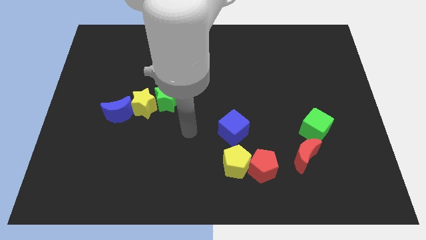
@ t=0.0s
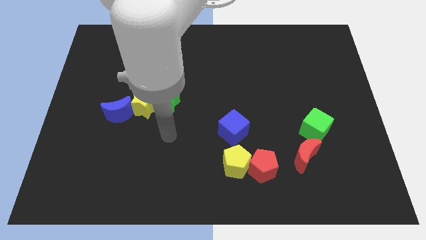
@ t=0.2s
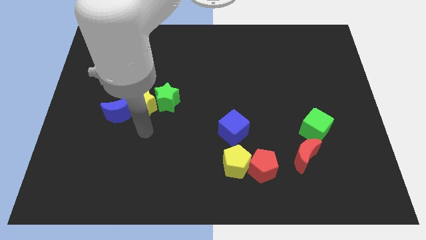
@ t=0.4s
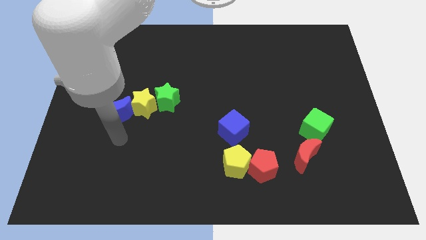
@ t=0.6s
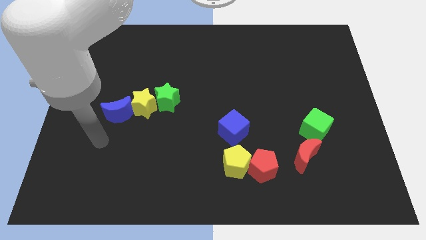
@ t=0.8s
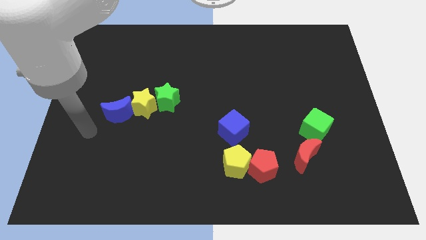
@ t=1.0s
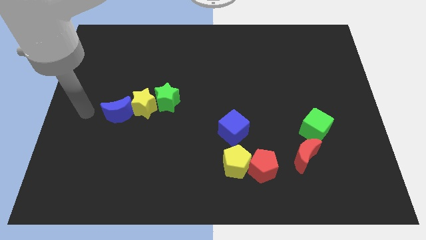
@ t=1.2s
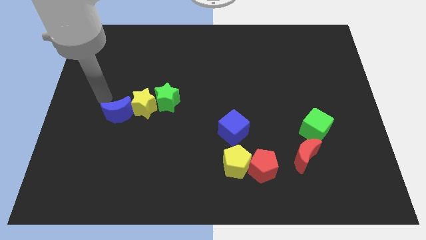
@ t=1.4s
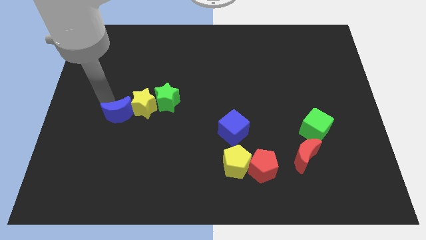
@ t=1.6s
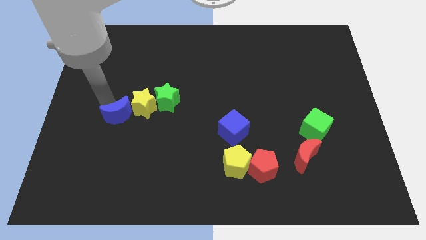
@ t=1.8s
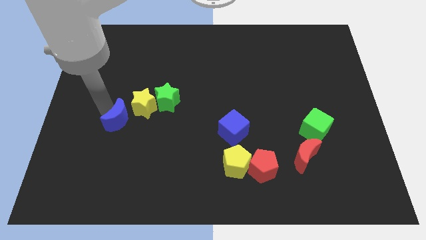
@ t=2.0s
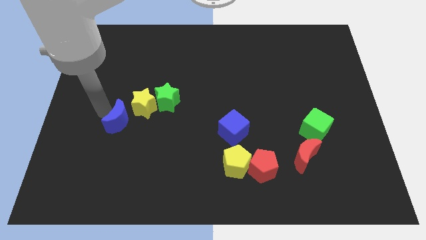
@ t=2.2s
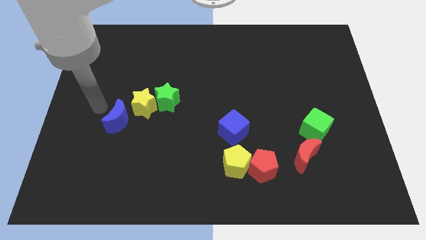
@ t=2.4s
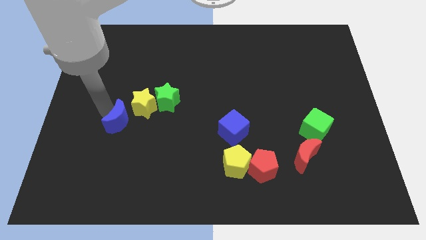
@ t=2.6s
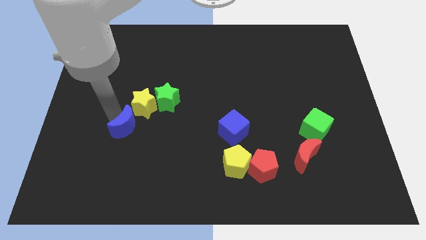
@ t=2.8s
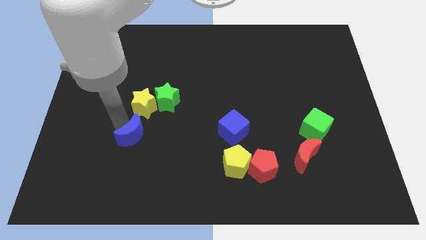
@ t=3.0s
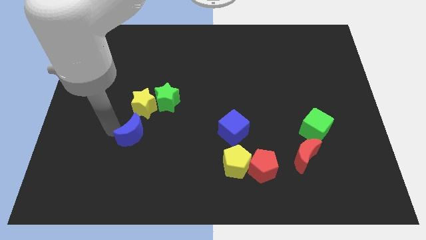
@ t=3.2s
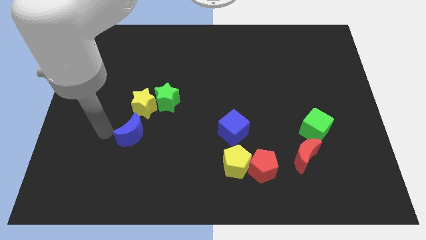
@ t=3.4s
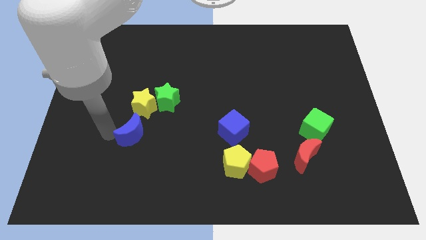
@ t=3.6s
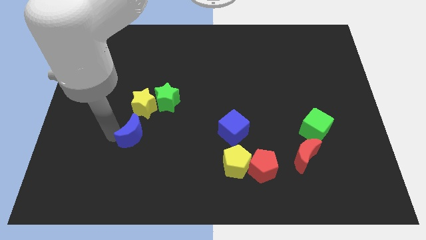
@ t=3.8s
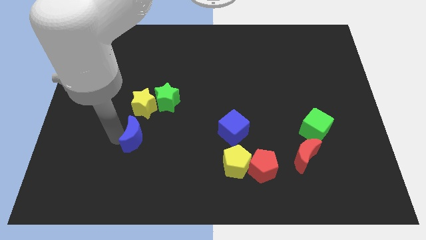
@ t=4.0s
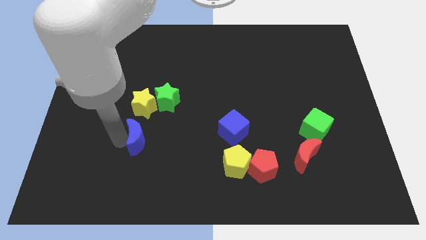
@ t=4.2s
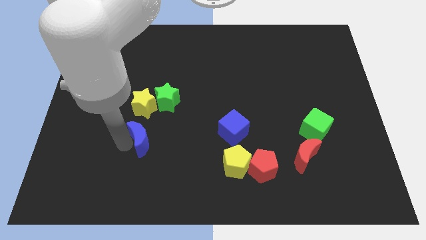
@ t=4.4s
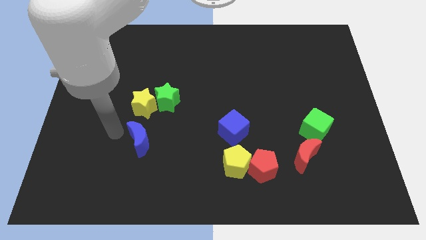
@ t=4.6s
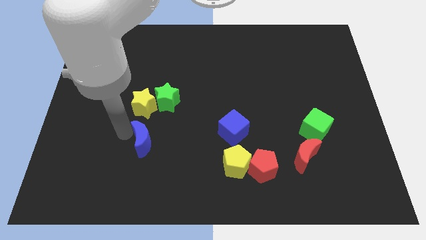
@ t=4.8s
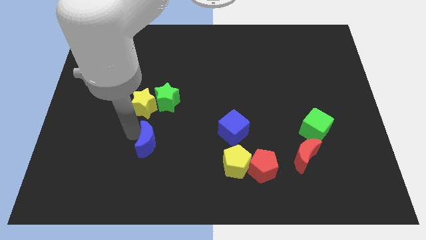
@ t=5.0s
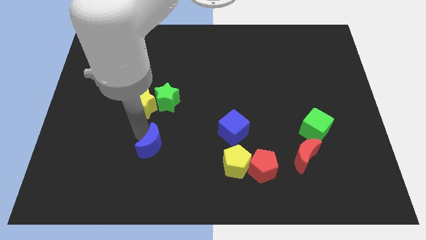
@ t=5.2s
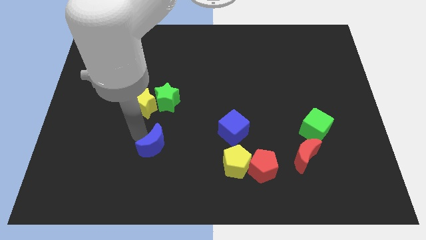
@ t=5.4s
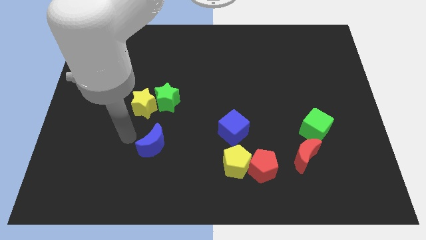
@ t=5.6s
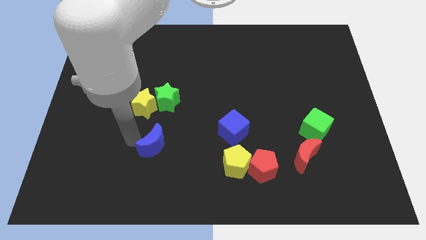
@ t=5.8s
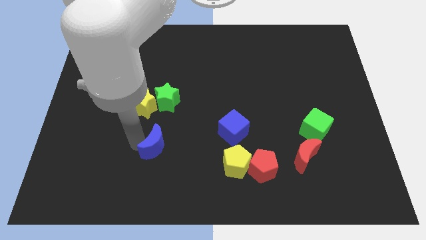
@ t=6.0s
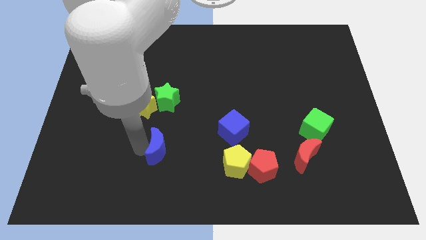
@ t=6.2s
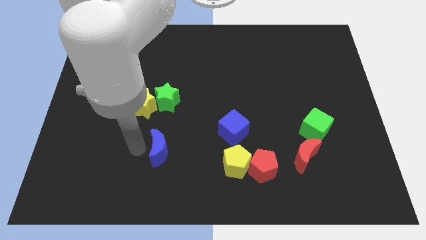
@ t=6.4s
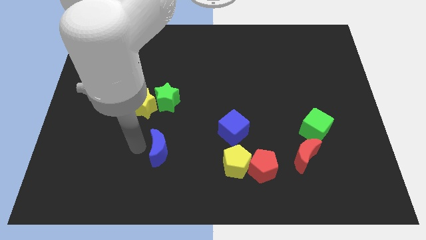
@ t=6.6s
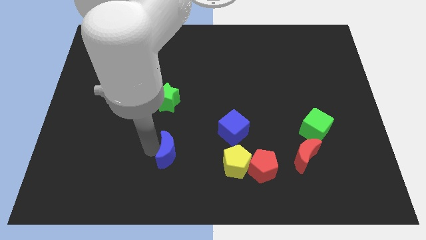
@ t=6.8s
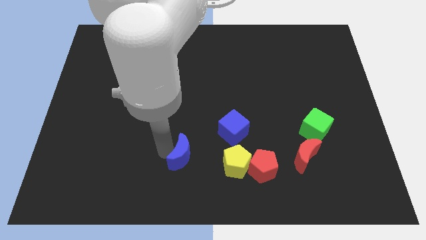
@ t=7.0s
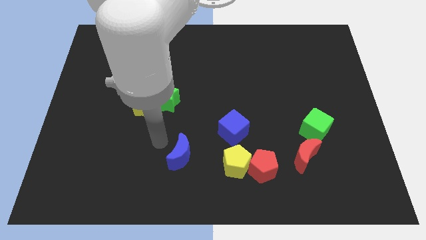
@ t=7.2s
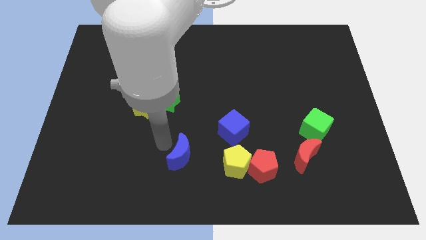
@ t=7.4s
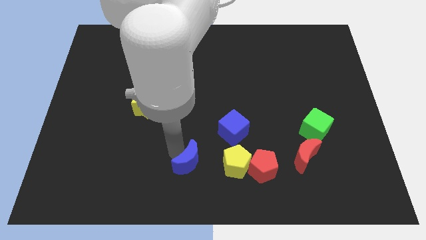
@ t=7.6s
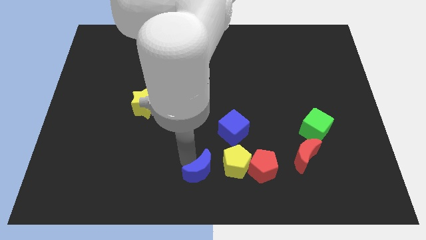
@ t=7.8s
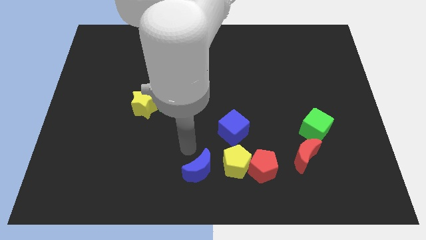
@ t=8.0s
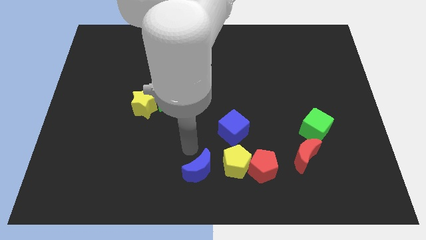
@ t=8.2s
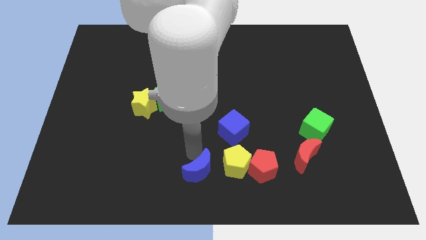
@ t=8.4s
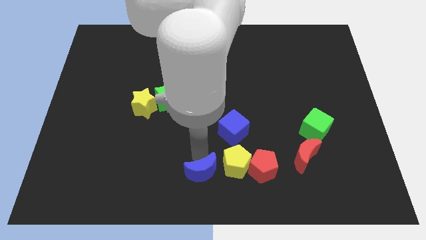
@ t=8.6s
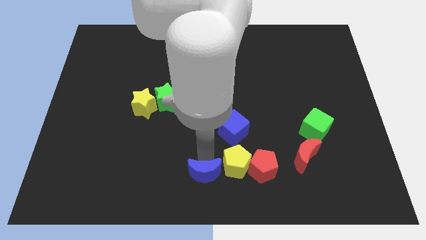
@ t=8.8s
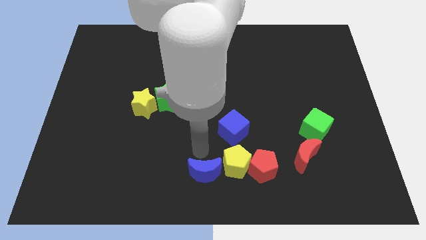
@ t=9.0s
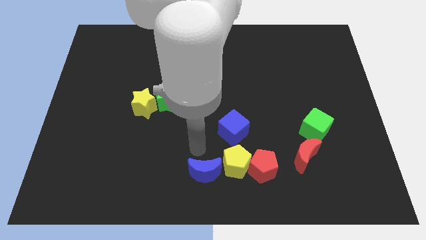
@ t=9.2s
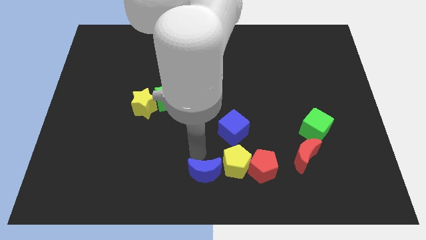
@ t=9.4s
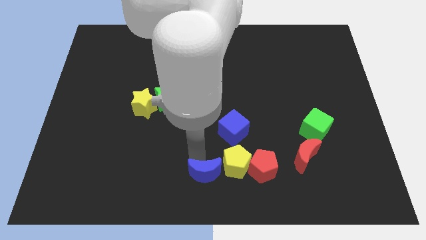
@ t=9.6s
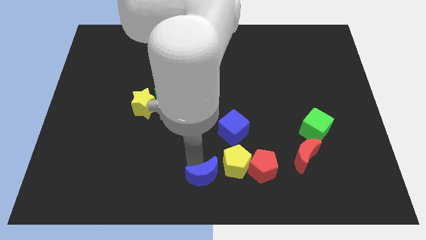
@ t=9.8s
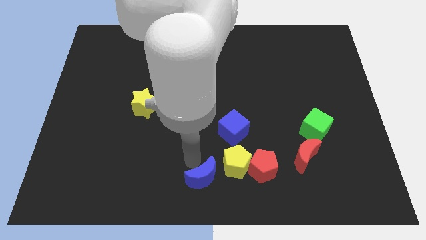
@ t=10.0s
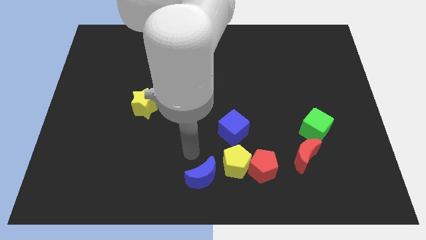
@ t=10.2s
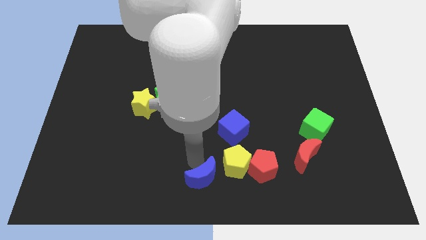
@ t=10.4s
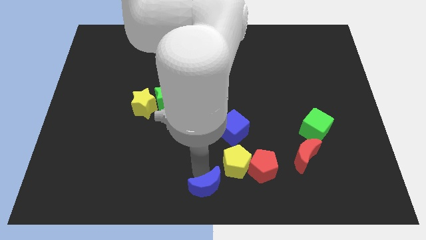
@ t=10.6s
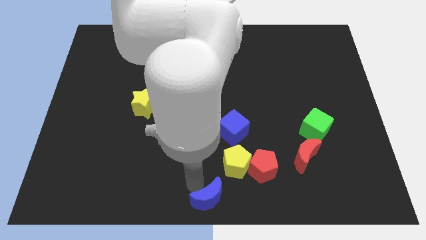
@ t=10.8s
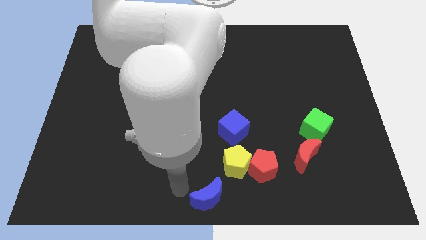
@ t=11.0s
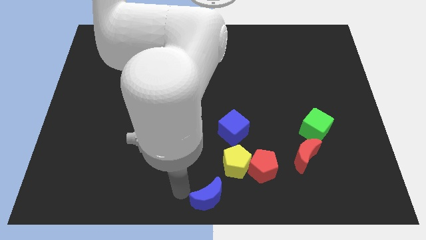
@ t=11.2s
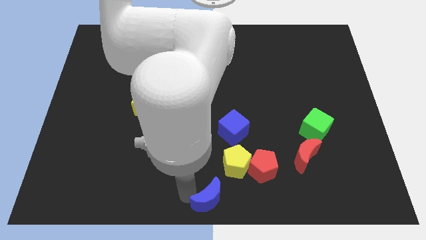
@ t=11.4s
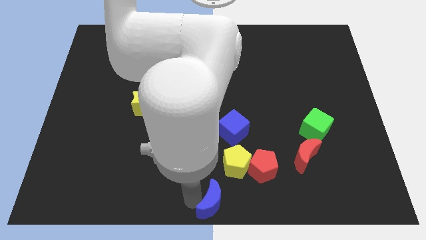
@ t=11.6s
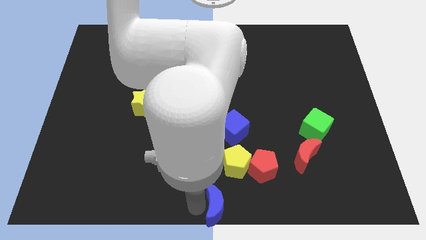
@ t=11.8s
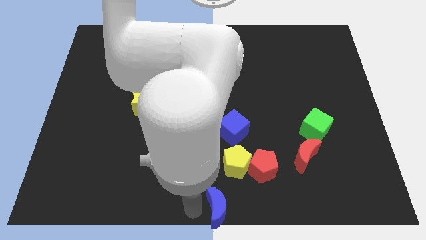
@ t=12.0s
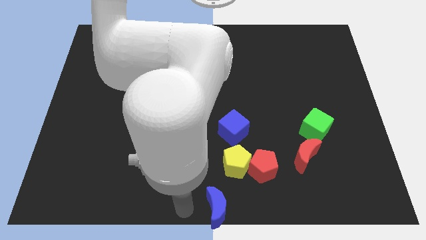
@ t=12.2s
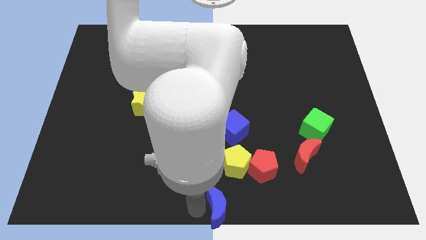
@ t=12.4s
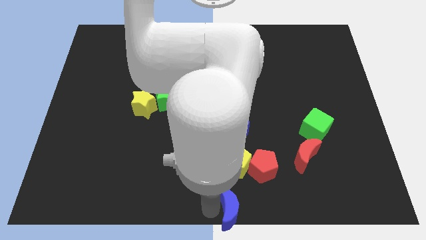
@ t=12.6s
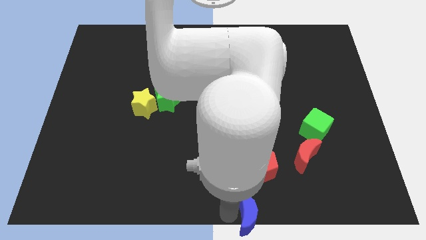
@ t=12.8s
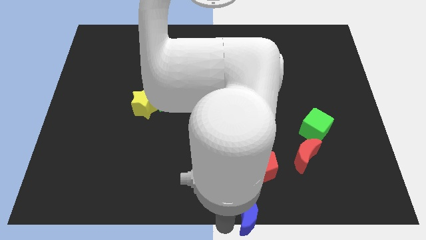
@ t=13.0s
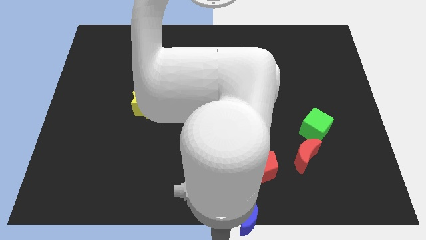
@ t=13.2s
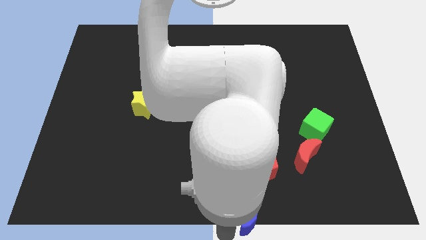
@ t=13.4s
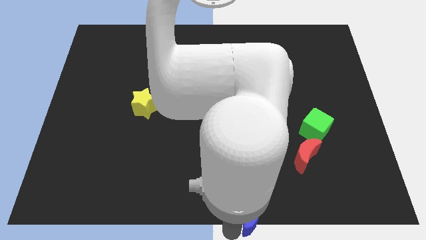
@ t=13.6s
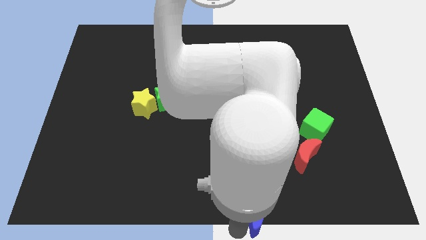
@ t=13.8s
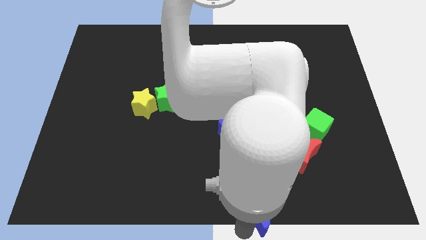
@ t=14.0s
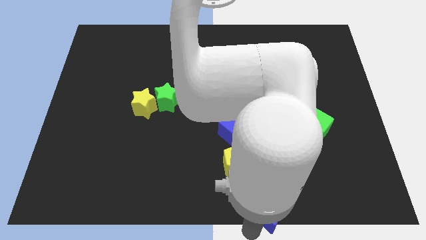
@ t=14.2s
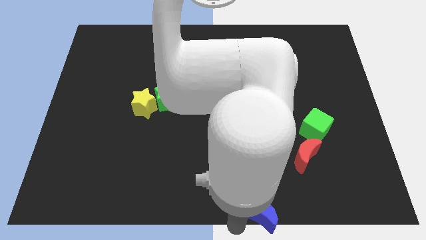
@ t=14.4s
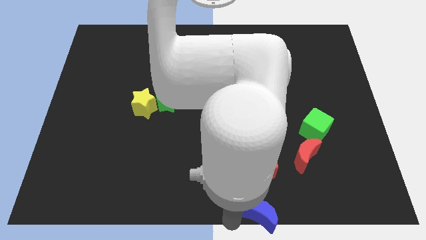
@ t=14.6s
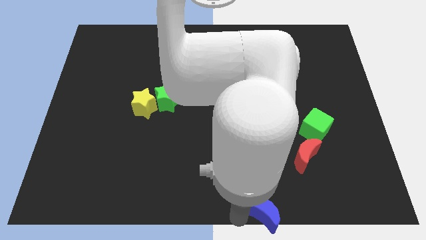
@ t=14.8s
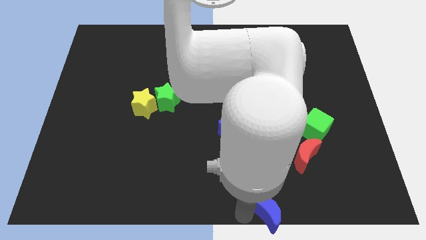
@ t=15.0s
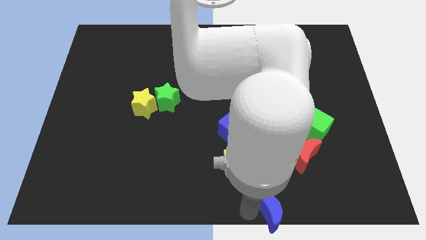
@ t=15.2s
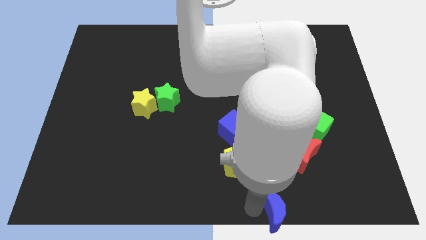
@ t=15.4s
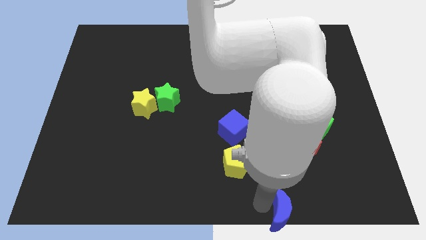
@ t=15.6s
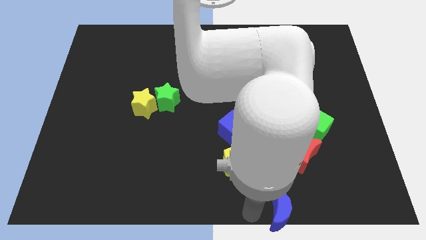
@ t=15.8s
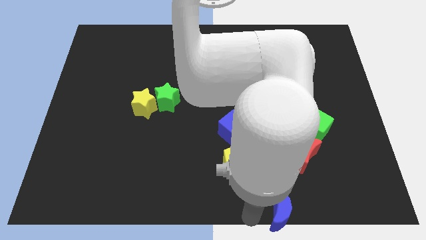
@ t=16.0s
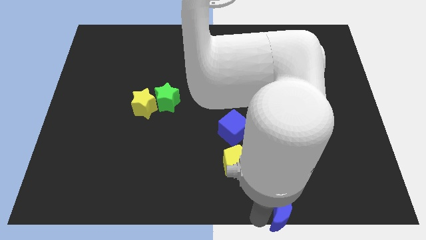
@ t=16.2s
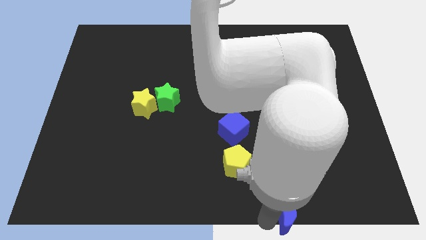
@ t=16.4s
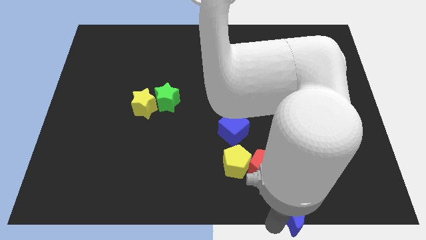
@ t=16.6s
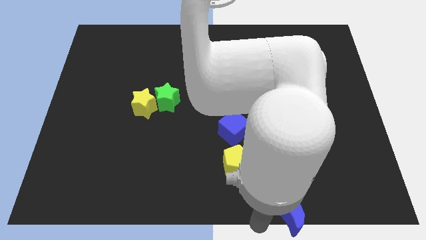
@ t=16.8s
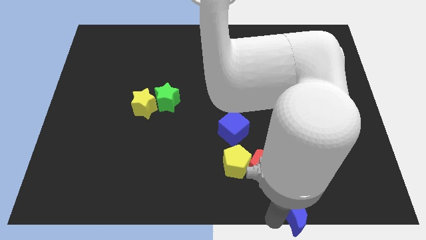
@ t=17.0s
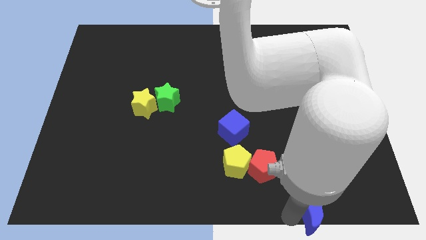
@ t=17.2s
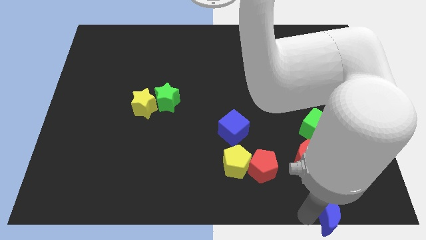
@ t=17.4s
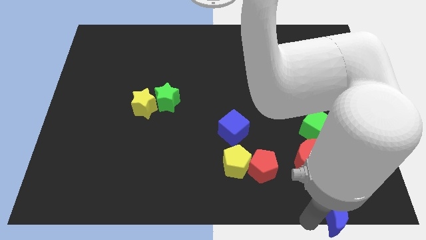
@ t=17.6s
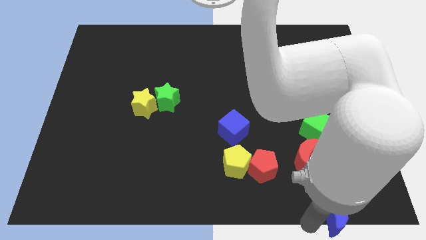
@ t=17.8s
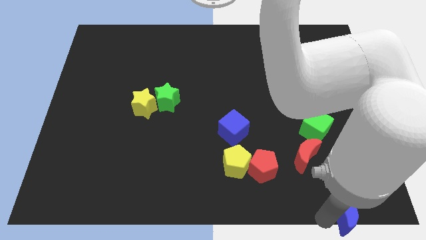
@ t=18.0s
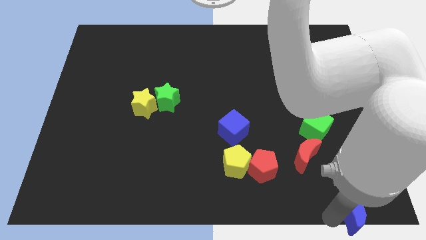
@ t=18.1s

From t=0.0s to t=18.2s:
push the blue moon to the bottom right
